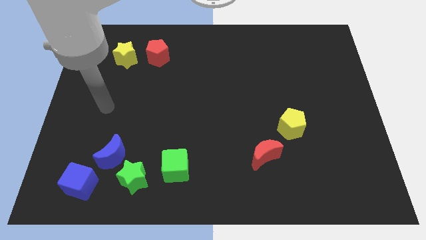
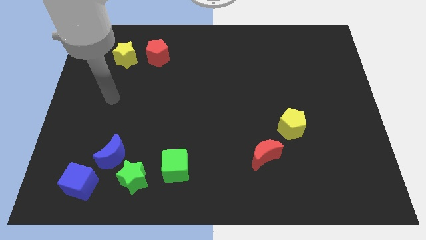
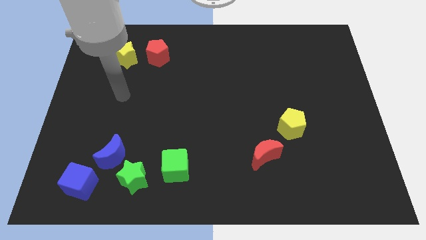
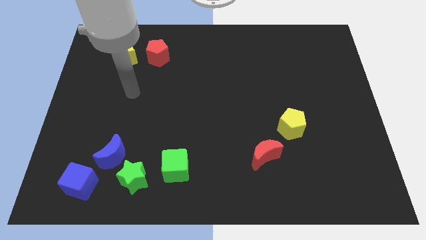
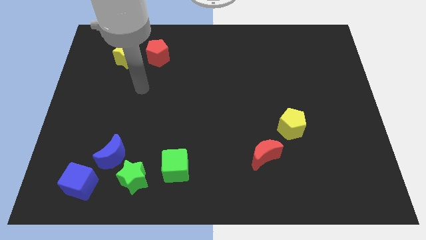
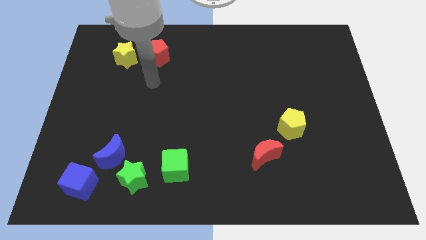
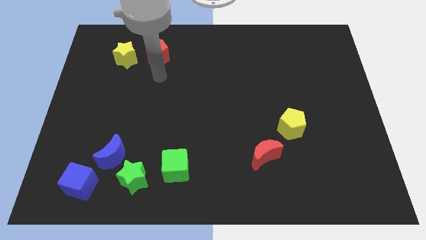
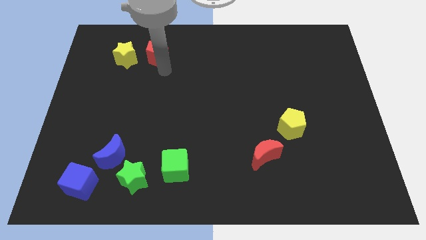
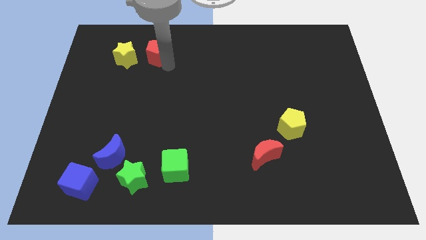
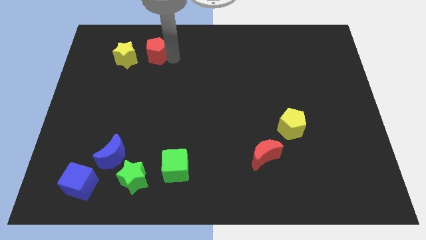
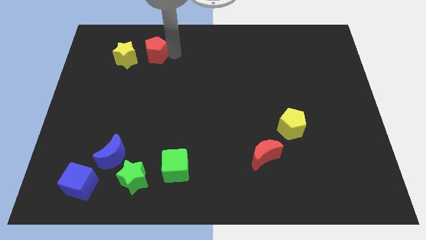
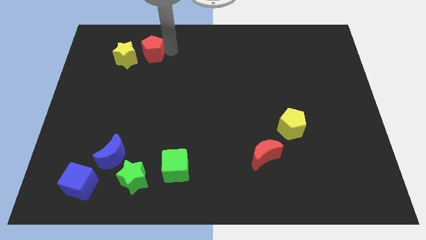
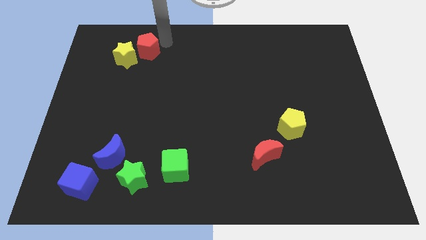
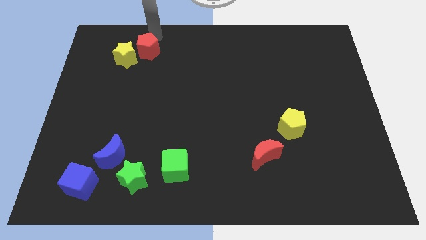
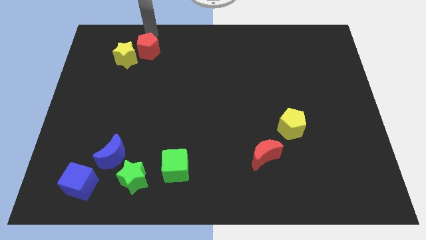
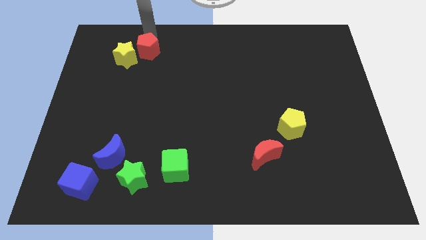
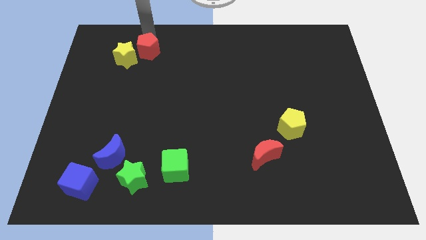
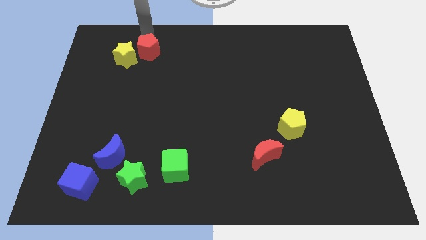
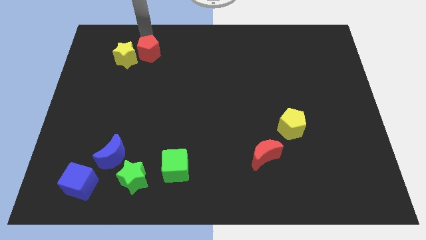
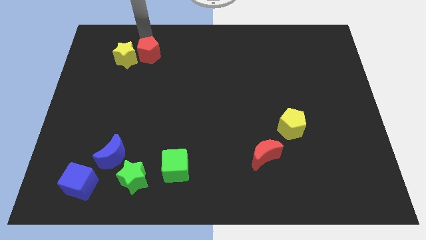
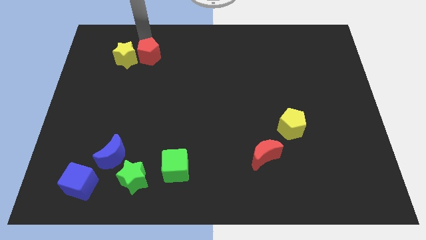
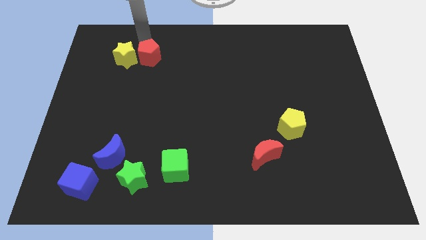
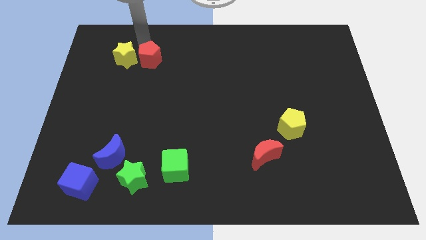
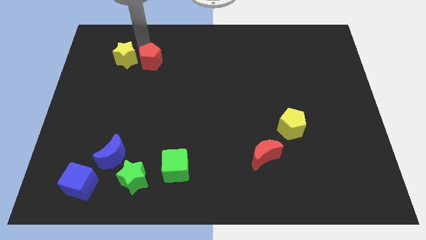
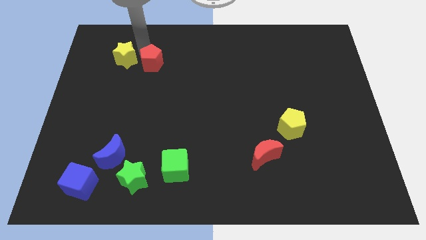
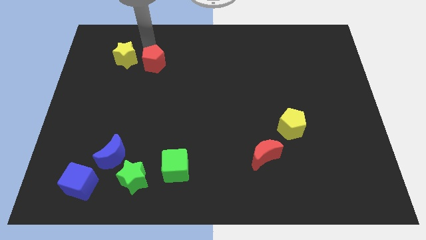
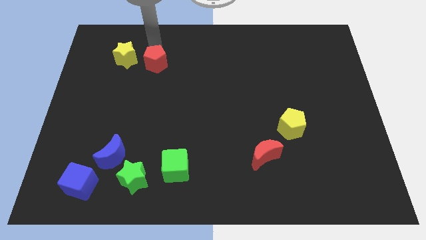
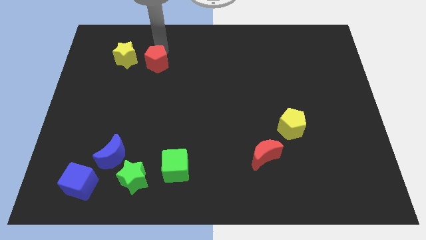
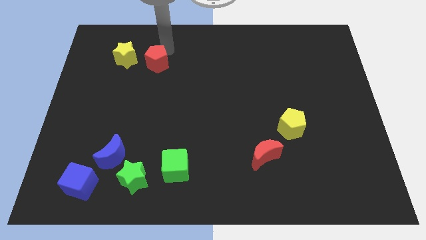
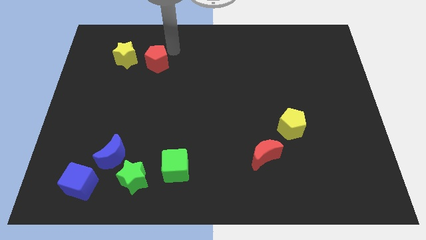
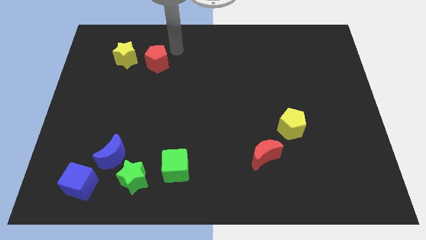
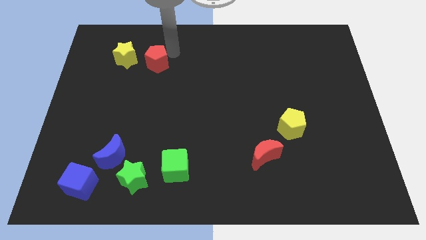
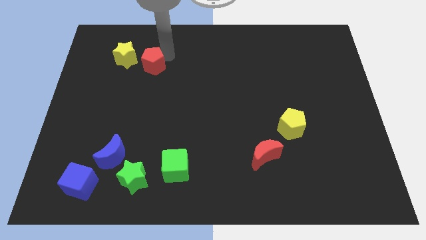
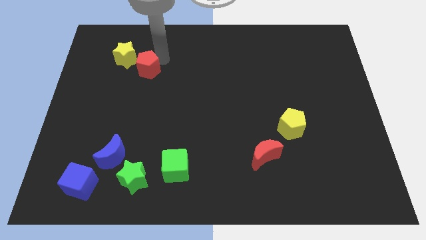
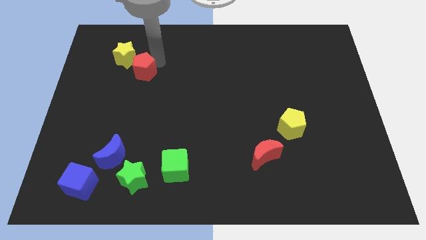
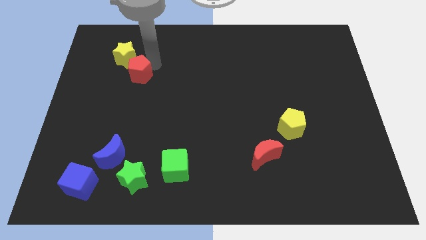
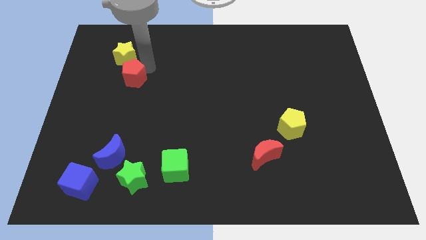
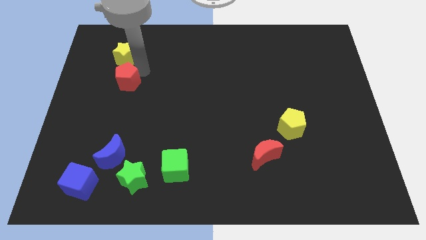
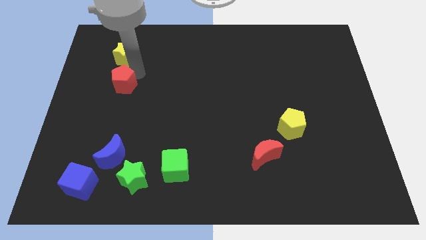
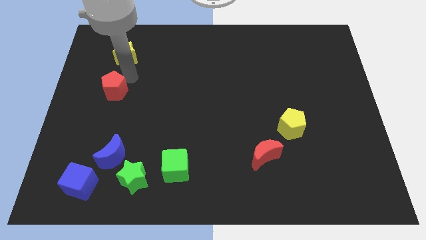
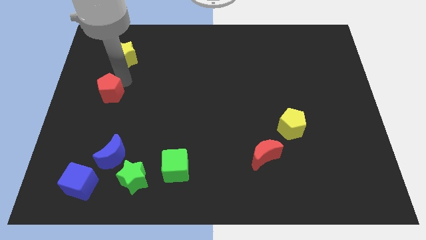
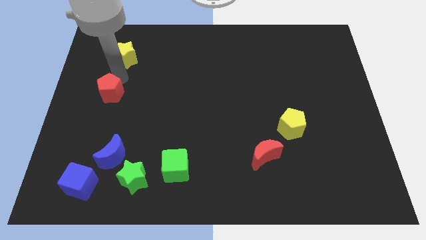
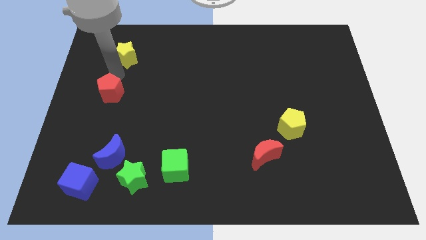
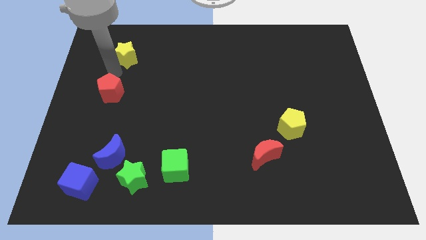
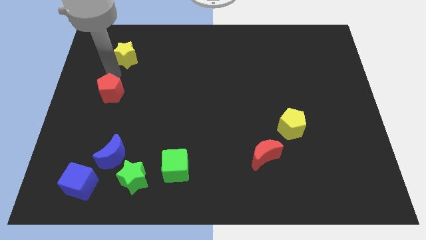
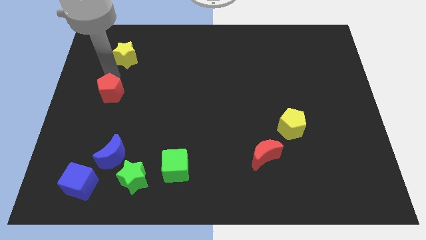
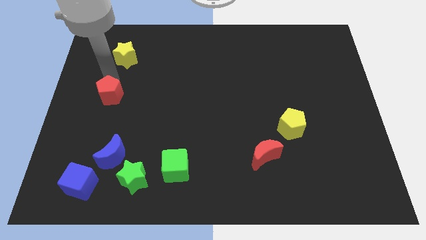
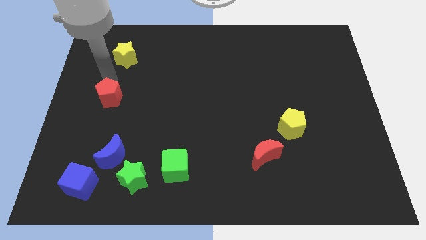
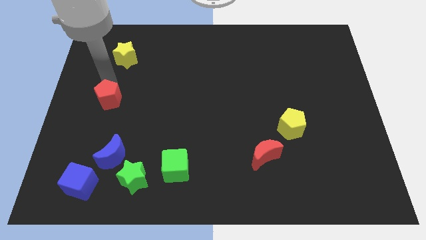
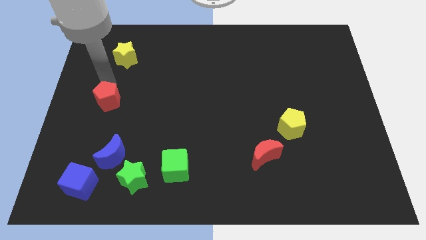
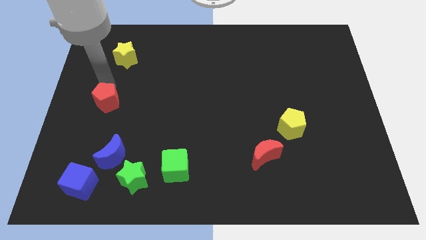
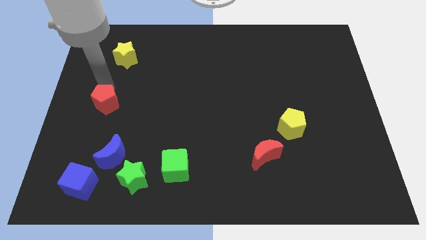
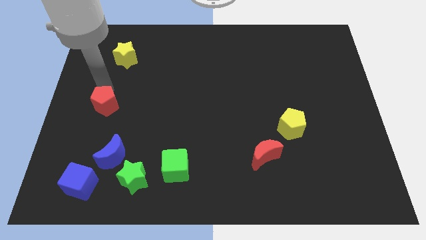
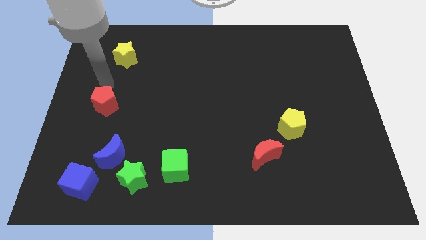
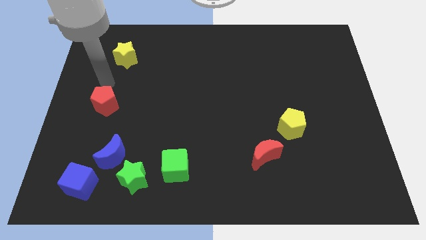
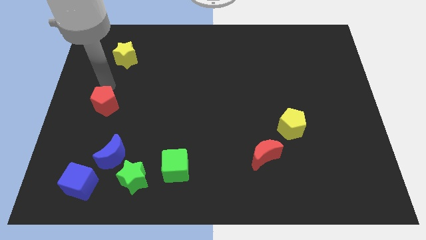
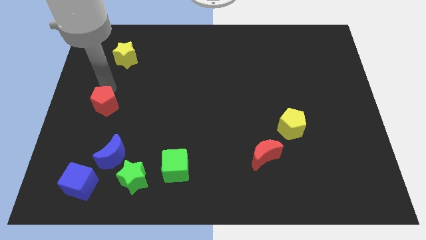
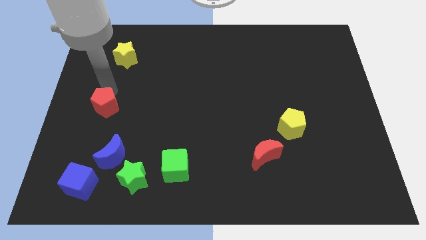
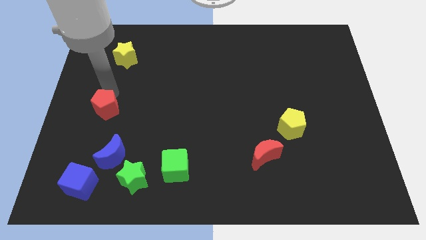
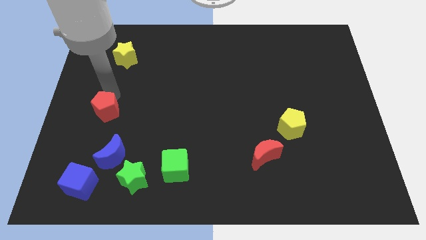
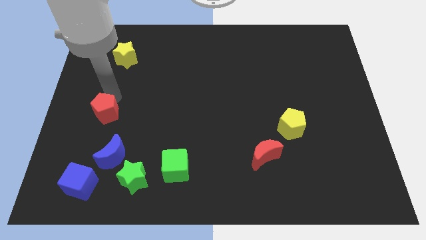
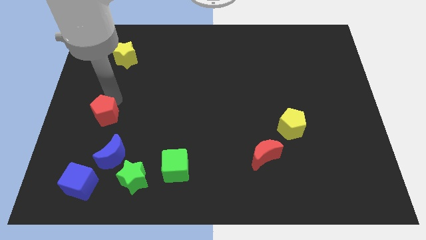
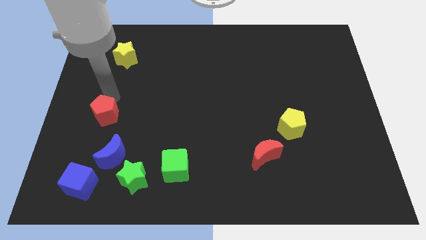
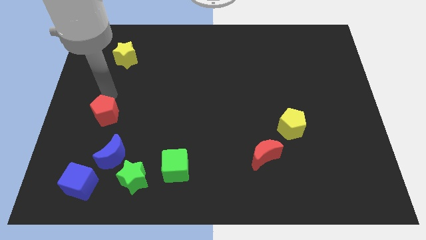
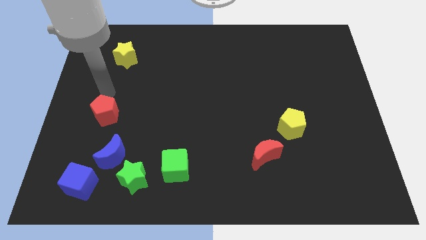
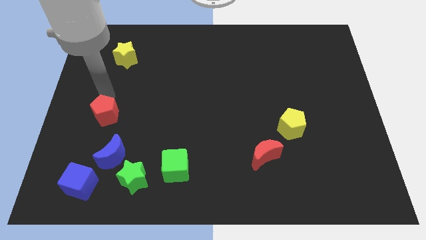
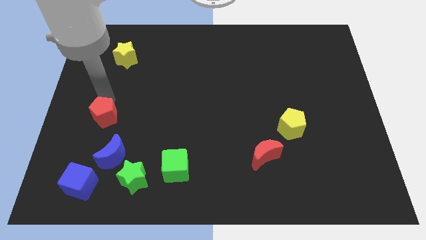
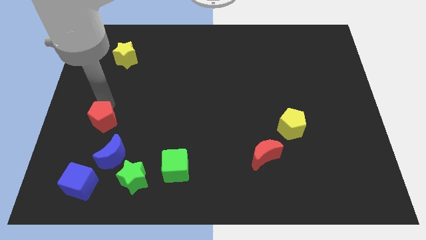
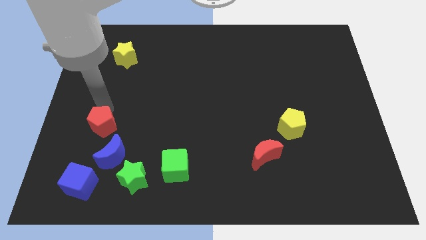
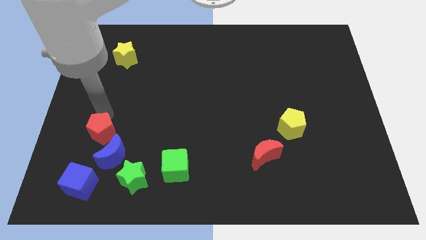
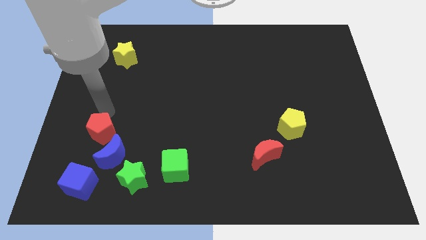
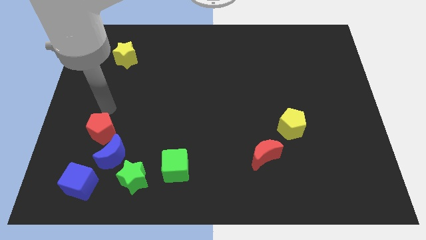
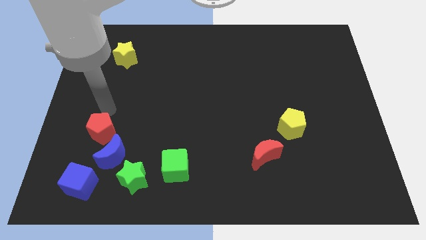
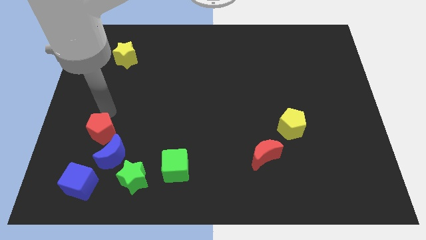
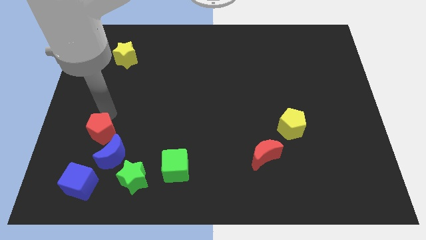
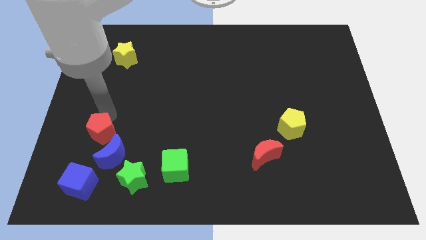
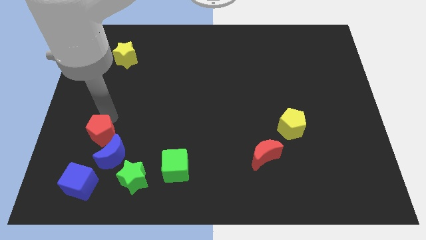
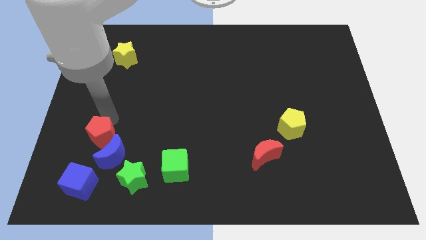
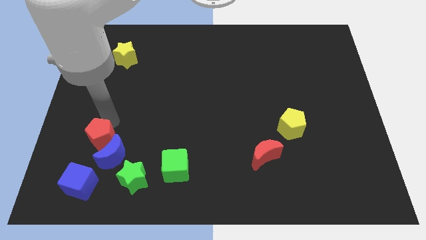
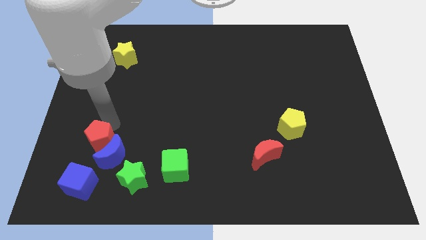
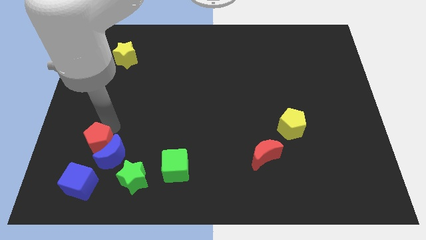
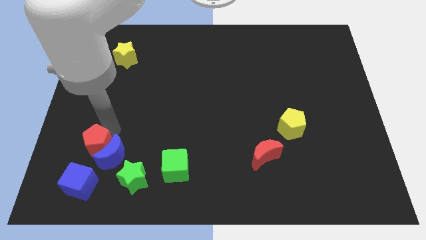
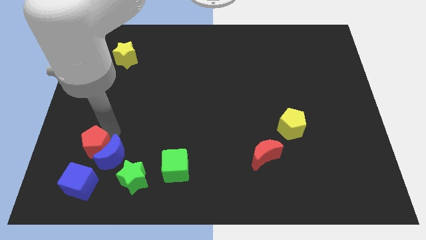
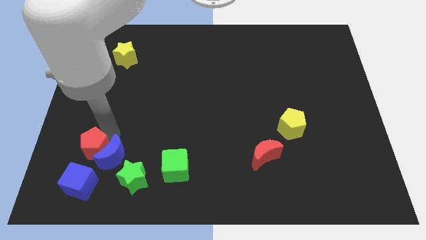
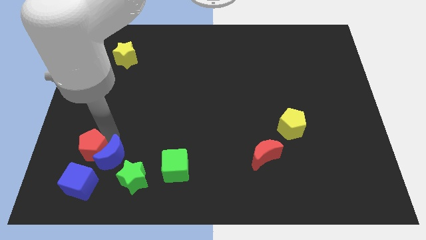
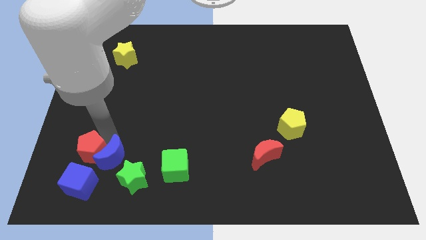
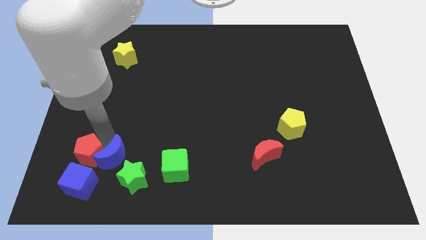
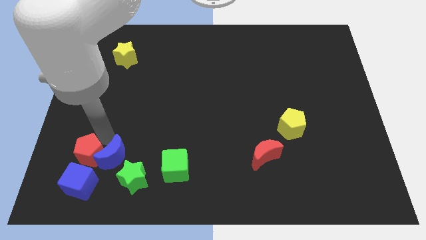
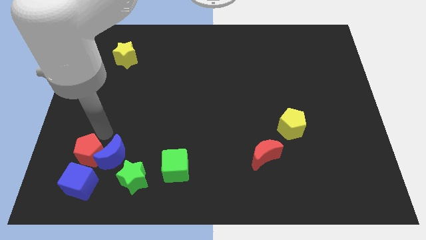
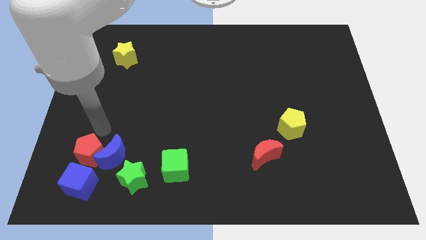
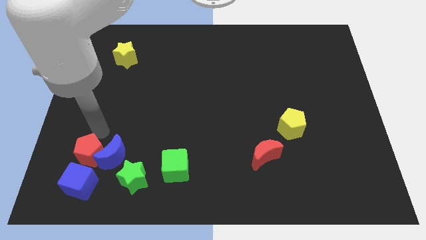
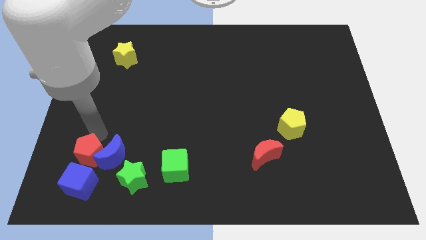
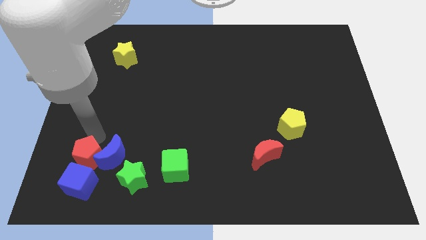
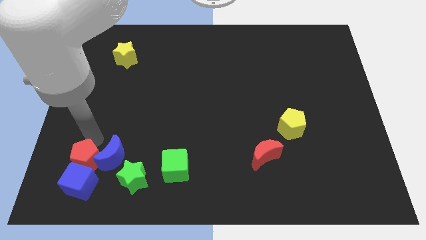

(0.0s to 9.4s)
slide the red pentagon close to the blue cube
